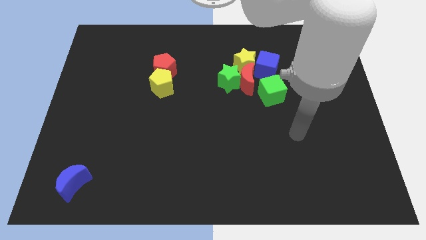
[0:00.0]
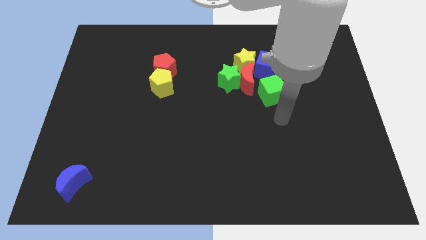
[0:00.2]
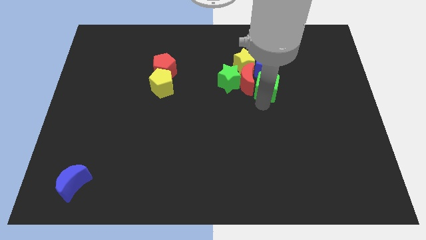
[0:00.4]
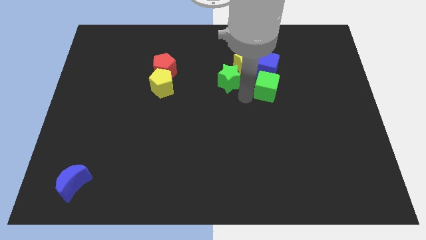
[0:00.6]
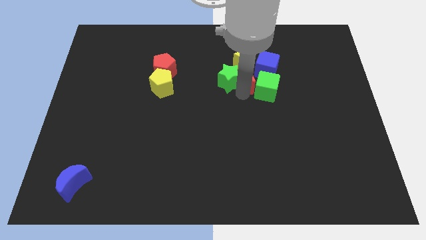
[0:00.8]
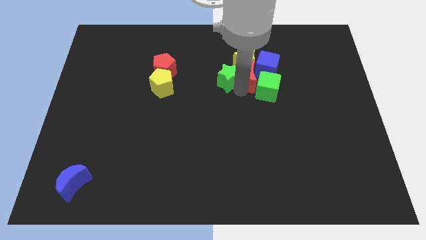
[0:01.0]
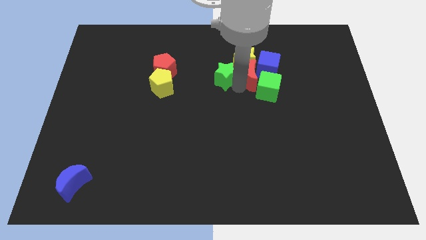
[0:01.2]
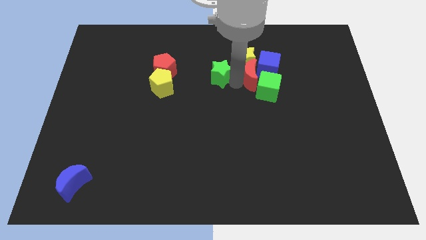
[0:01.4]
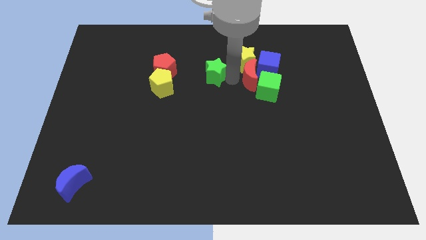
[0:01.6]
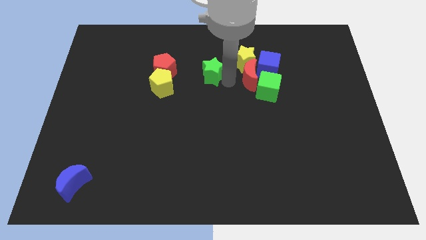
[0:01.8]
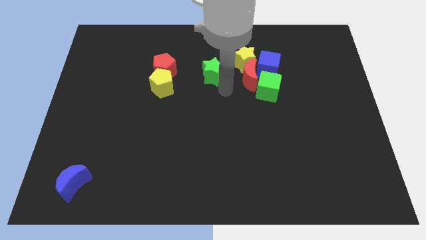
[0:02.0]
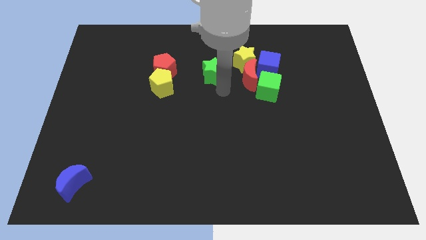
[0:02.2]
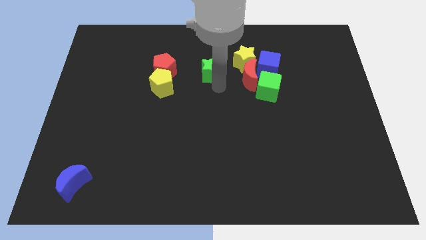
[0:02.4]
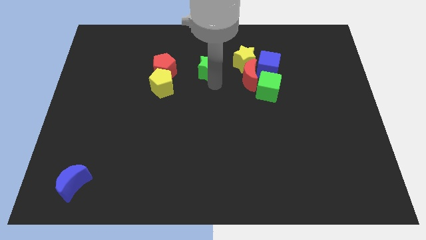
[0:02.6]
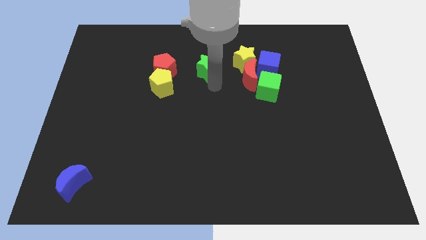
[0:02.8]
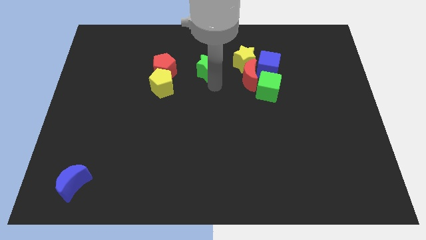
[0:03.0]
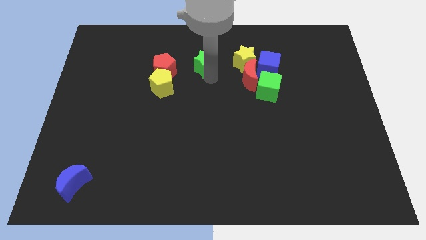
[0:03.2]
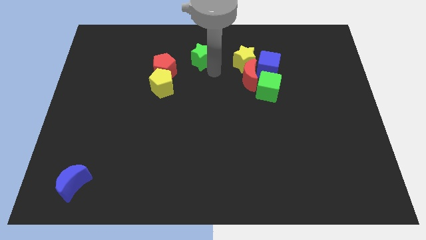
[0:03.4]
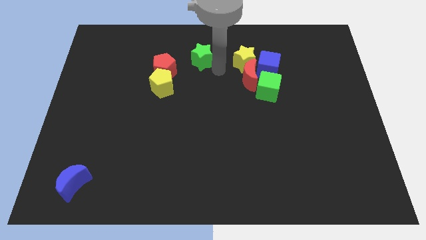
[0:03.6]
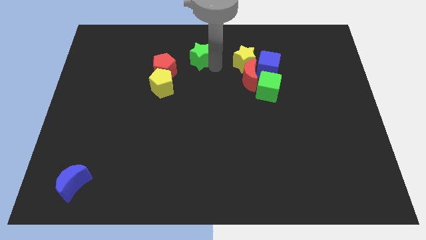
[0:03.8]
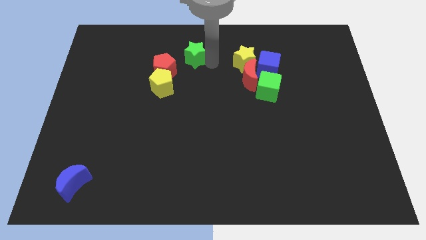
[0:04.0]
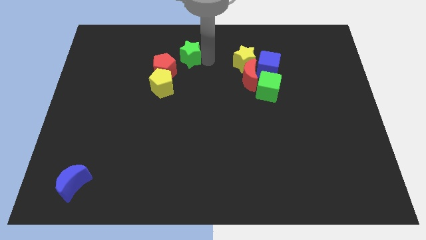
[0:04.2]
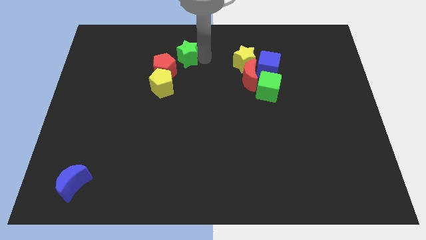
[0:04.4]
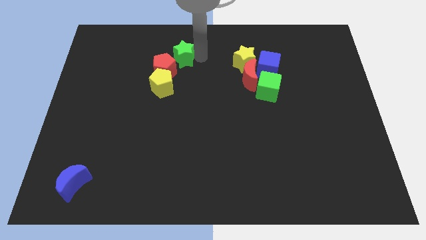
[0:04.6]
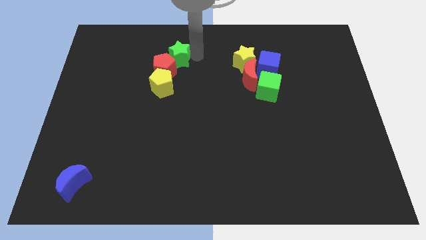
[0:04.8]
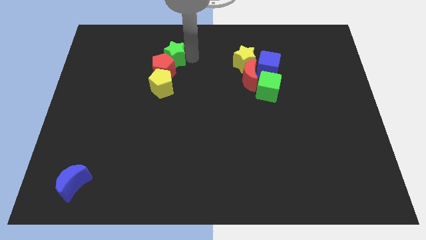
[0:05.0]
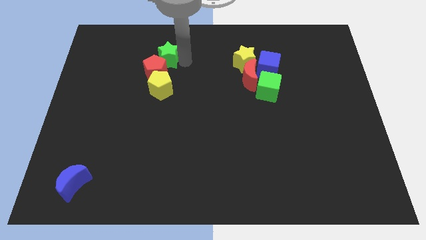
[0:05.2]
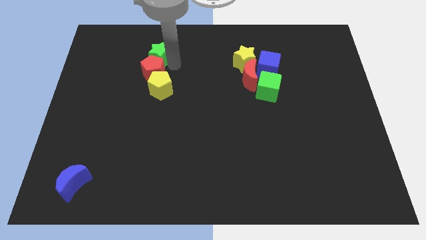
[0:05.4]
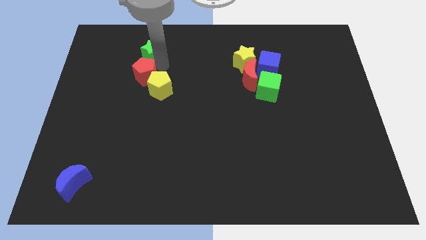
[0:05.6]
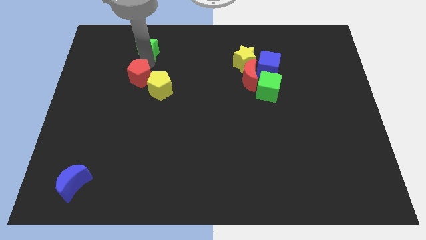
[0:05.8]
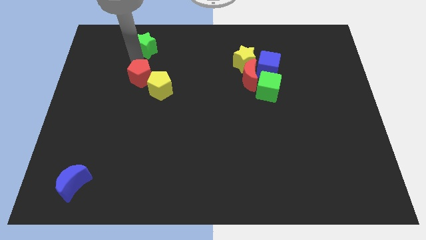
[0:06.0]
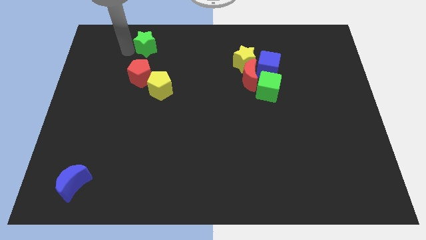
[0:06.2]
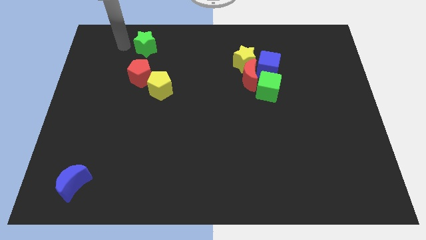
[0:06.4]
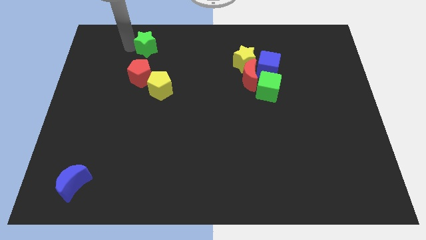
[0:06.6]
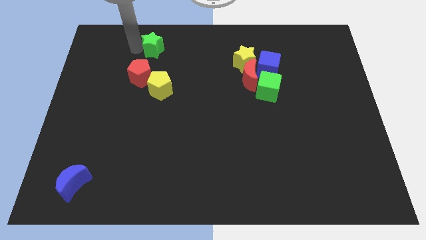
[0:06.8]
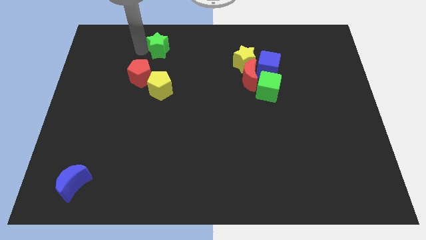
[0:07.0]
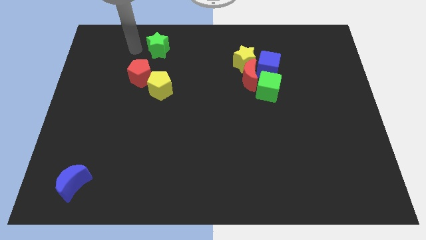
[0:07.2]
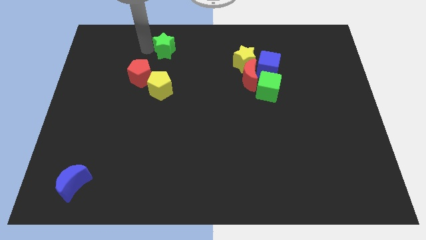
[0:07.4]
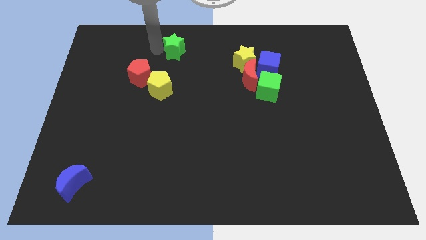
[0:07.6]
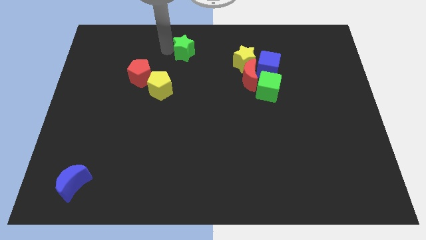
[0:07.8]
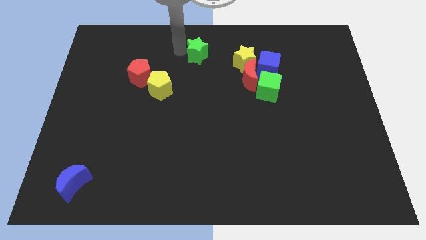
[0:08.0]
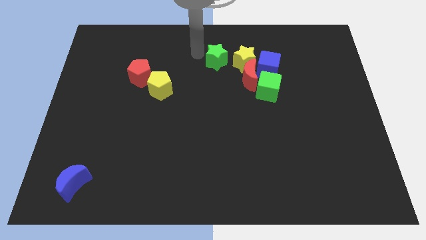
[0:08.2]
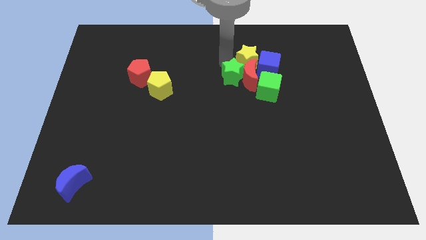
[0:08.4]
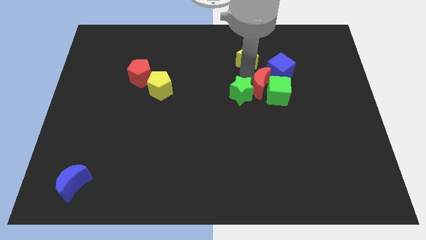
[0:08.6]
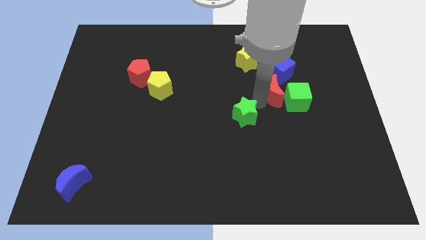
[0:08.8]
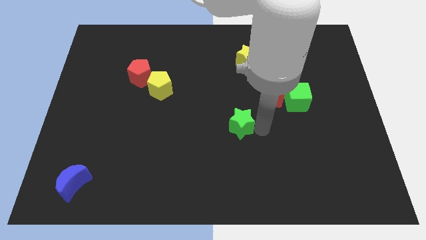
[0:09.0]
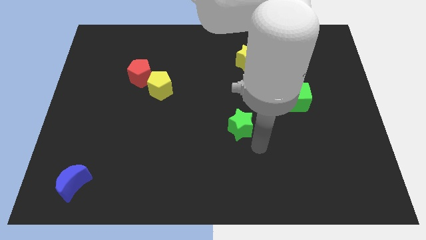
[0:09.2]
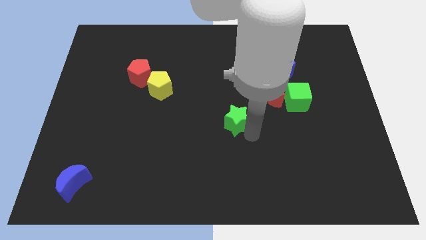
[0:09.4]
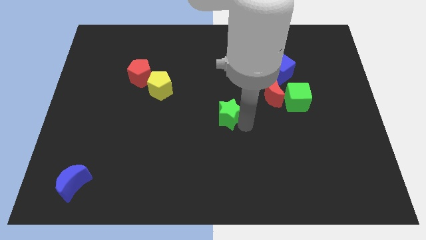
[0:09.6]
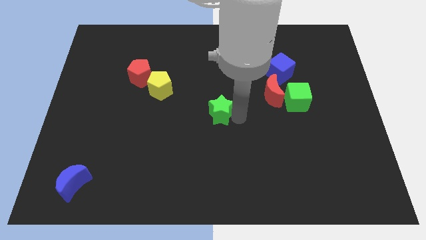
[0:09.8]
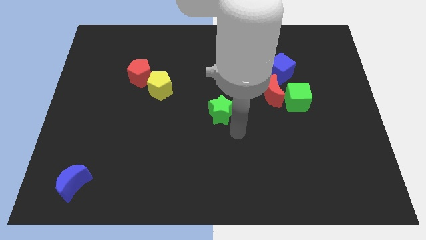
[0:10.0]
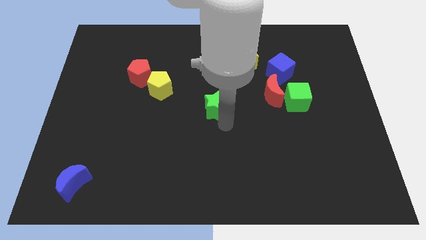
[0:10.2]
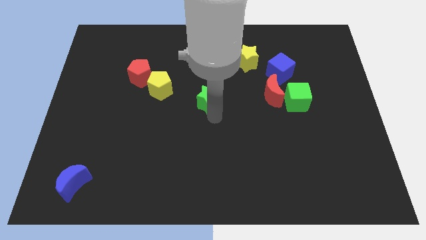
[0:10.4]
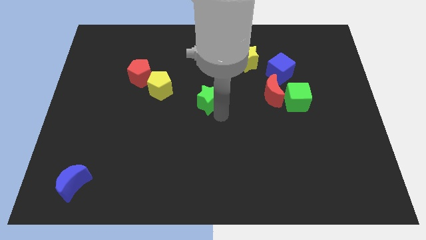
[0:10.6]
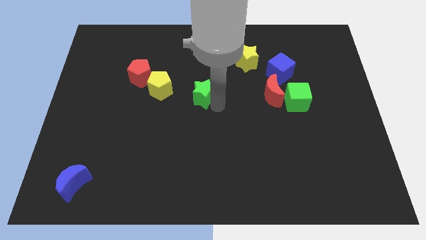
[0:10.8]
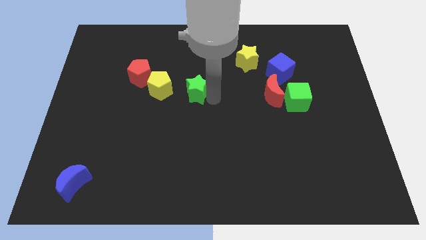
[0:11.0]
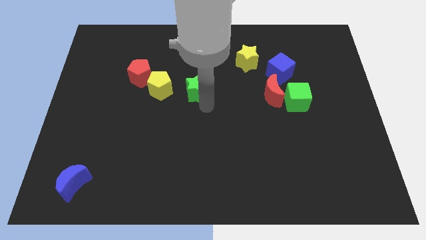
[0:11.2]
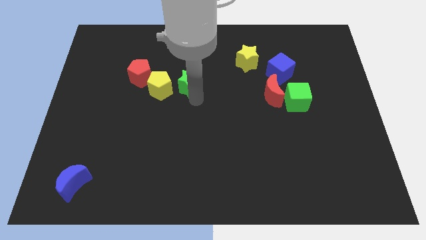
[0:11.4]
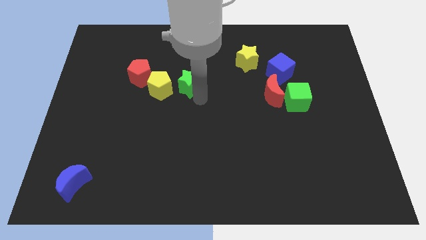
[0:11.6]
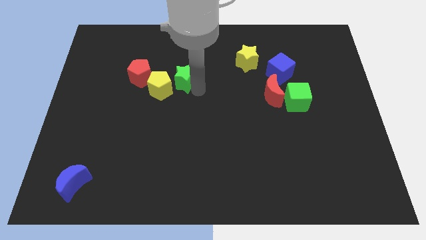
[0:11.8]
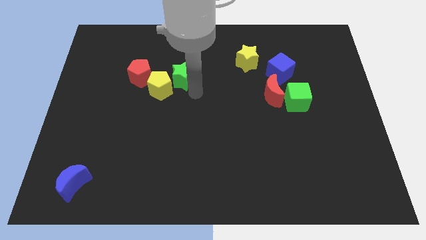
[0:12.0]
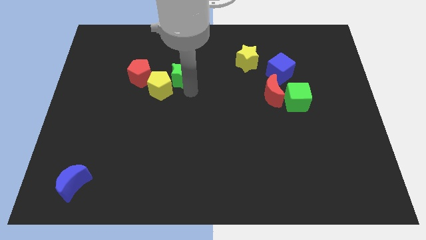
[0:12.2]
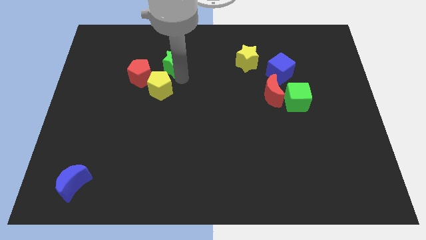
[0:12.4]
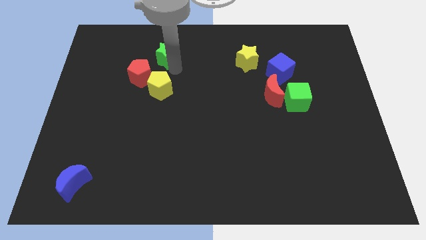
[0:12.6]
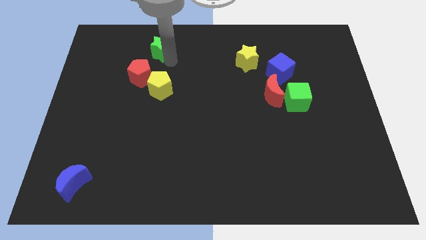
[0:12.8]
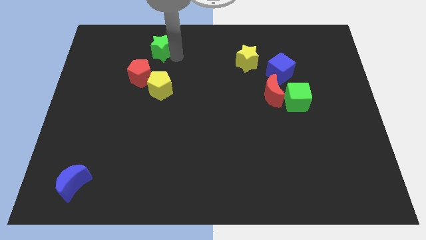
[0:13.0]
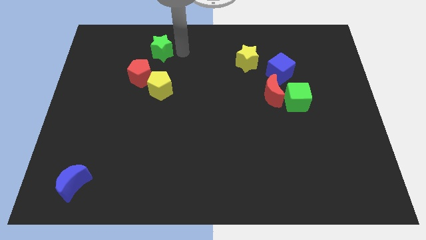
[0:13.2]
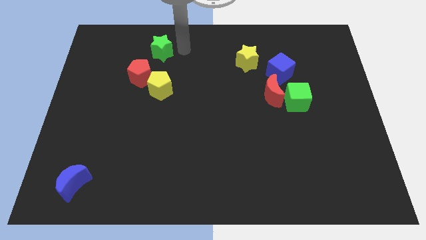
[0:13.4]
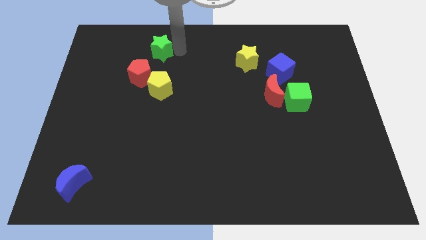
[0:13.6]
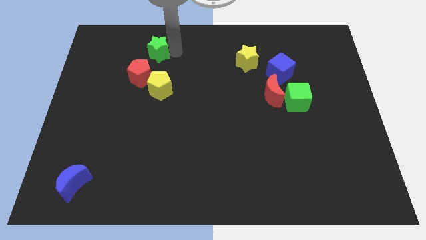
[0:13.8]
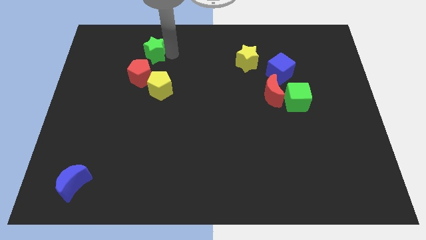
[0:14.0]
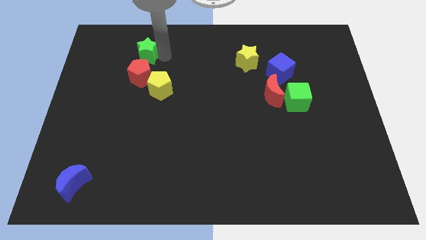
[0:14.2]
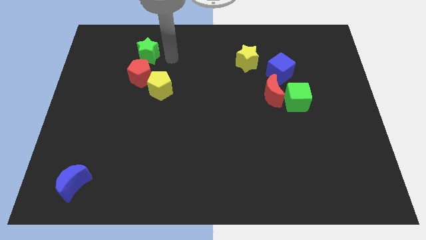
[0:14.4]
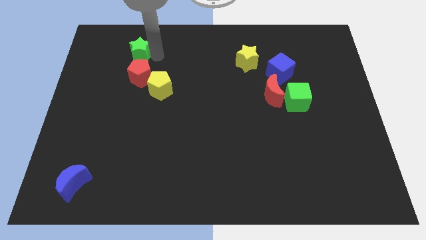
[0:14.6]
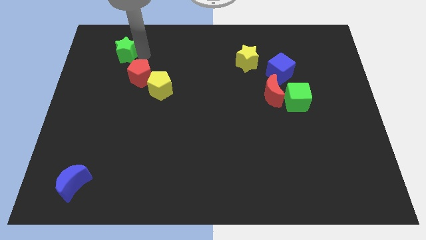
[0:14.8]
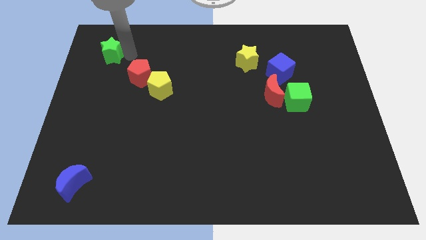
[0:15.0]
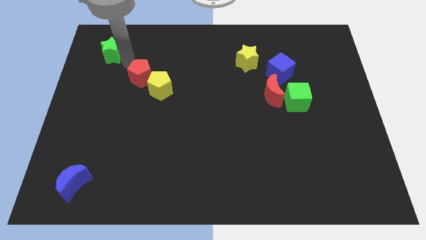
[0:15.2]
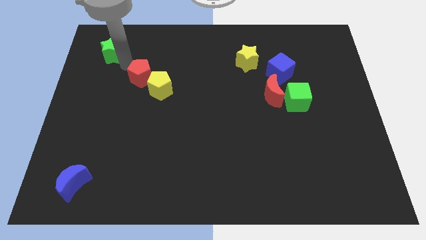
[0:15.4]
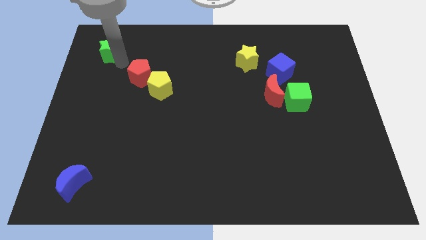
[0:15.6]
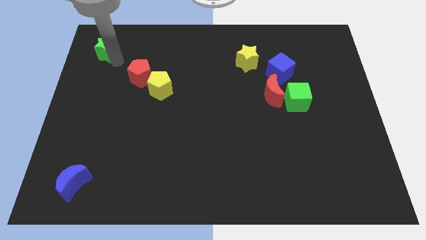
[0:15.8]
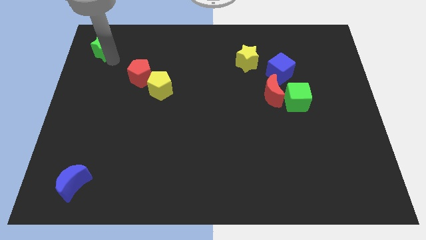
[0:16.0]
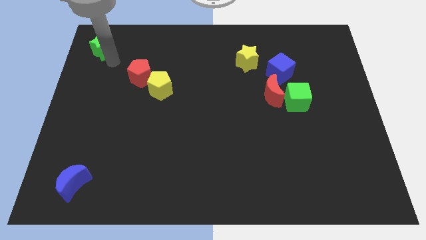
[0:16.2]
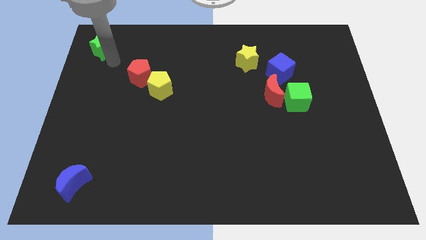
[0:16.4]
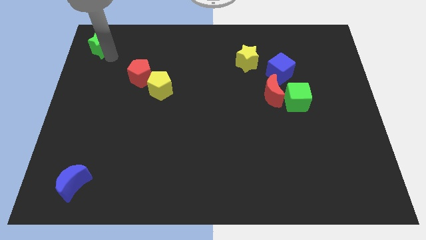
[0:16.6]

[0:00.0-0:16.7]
push the green star to the upper left corner
